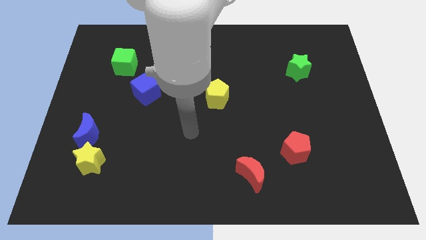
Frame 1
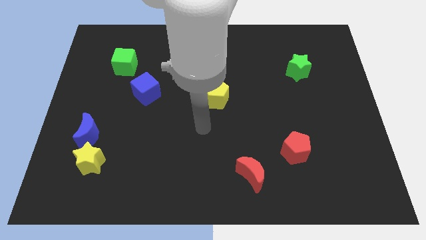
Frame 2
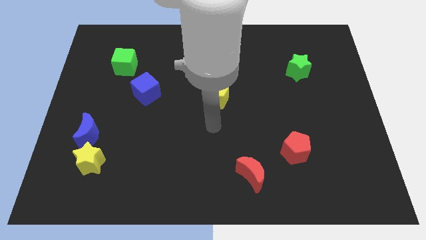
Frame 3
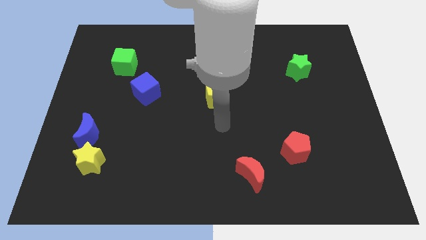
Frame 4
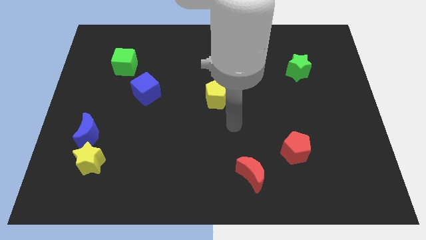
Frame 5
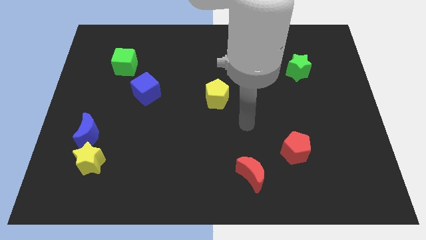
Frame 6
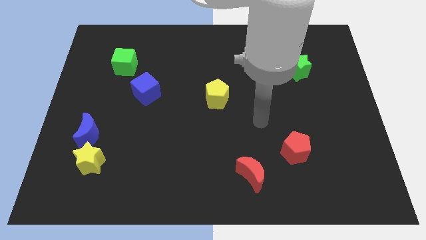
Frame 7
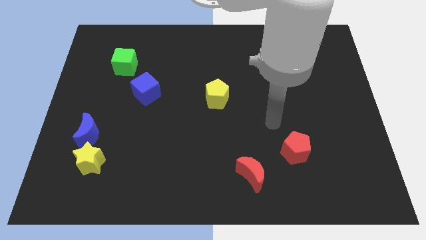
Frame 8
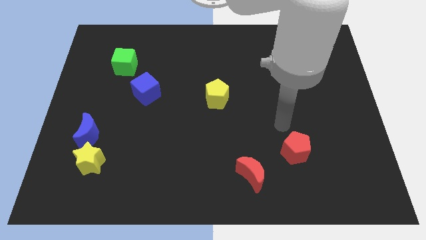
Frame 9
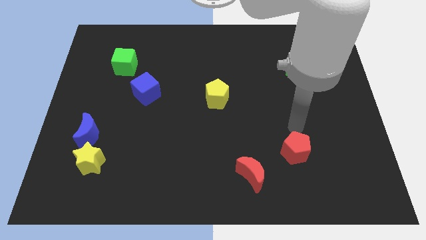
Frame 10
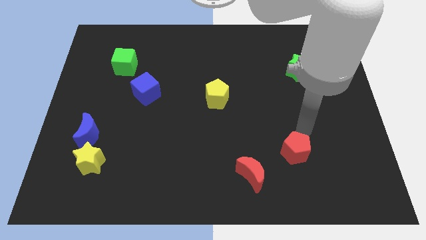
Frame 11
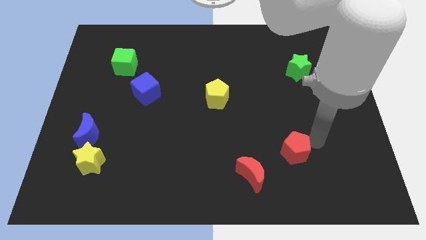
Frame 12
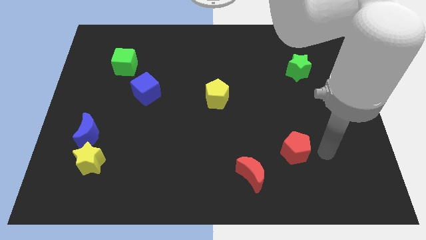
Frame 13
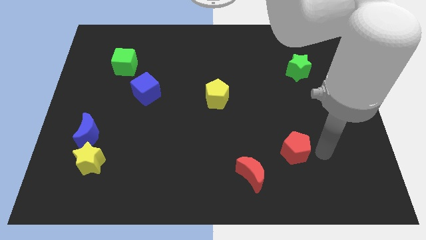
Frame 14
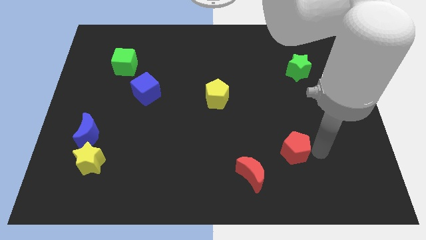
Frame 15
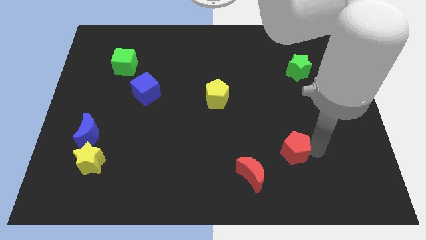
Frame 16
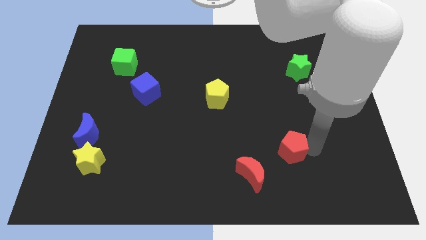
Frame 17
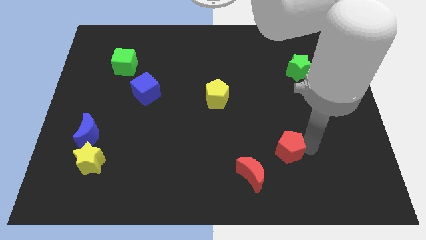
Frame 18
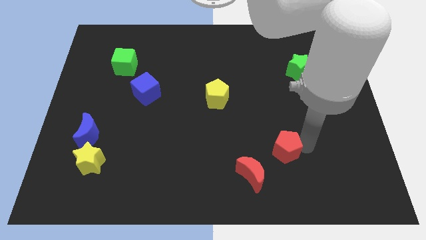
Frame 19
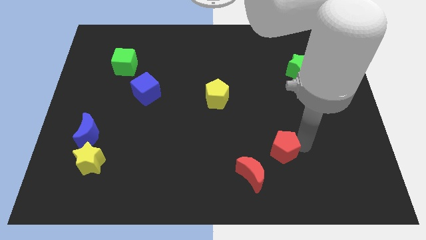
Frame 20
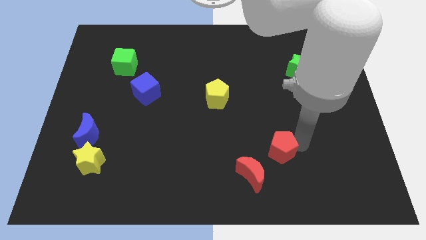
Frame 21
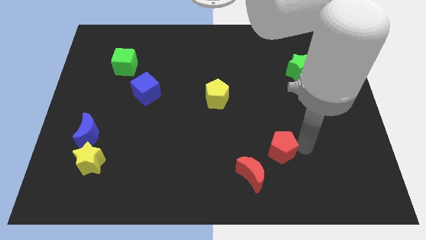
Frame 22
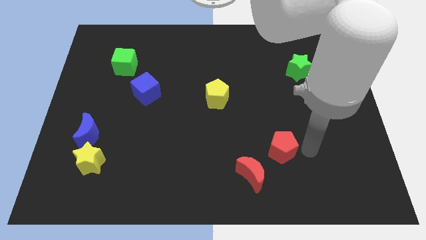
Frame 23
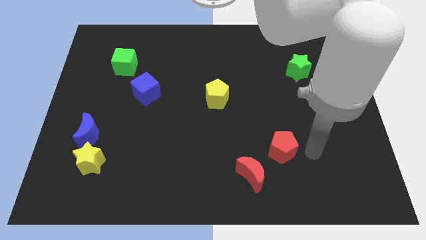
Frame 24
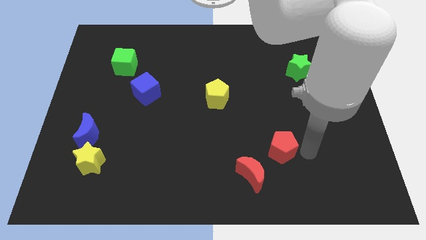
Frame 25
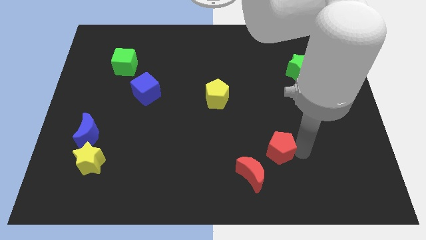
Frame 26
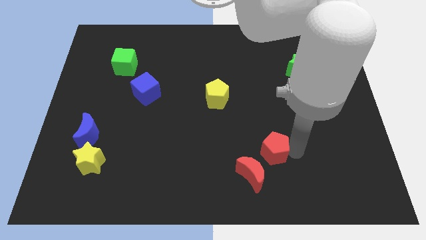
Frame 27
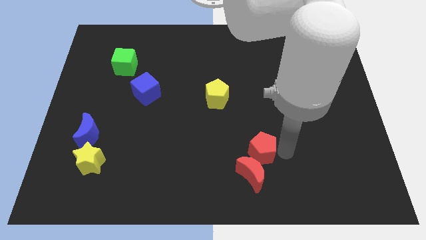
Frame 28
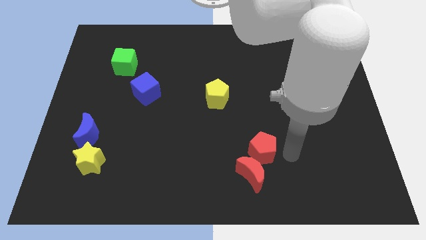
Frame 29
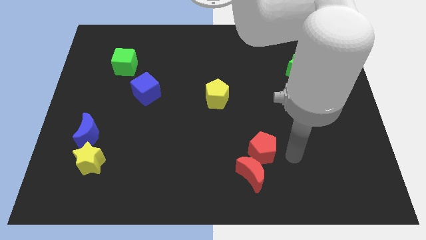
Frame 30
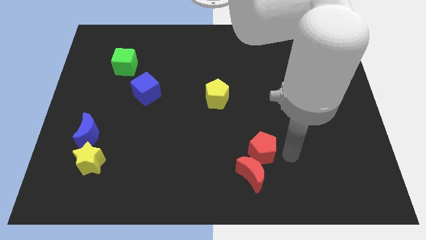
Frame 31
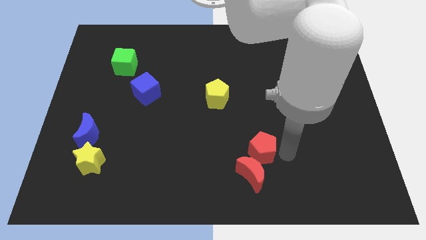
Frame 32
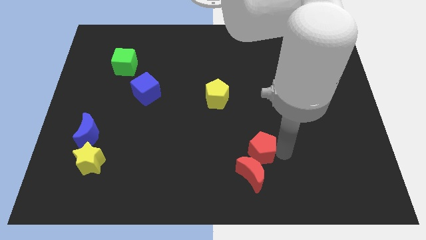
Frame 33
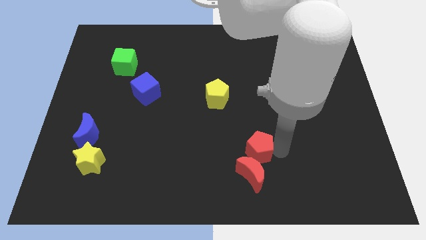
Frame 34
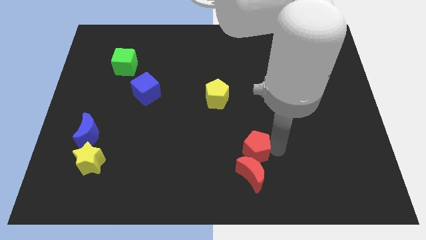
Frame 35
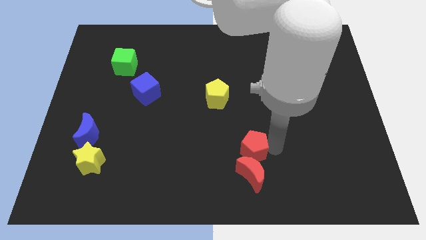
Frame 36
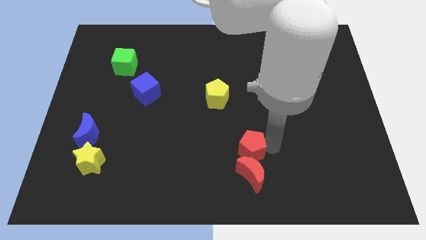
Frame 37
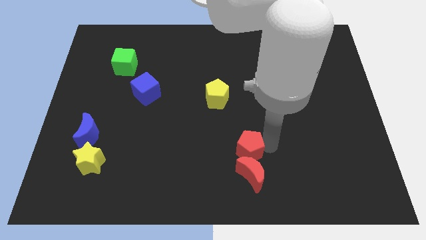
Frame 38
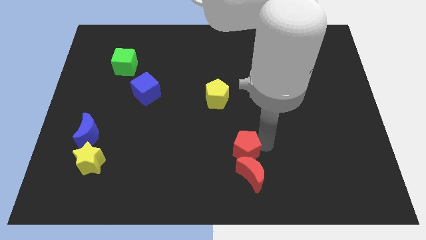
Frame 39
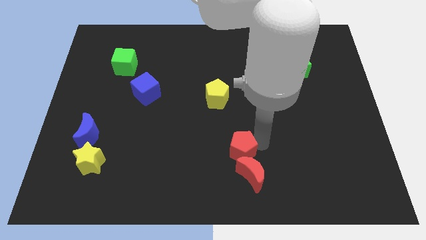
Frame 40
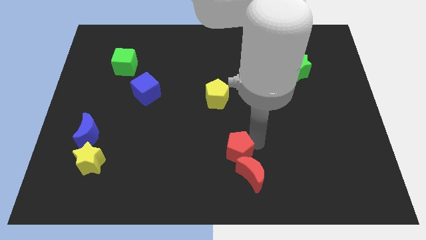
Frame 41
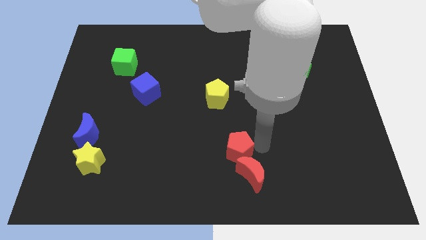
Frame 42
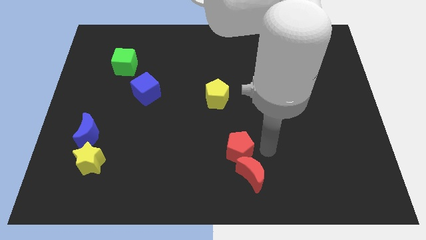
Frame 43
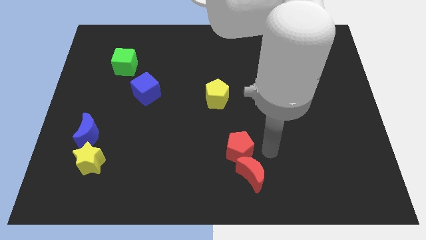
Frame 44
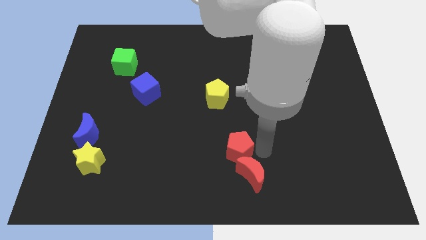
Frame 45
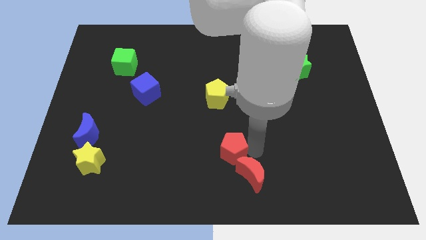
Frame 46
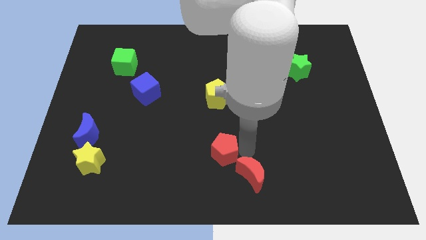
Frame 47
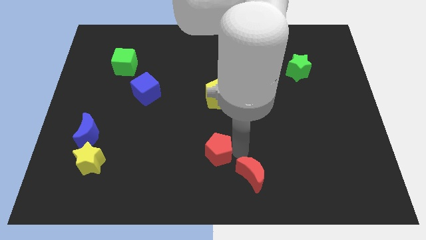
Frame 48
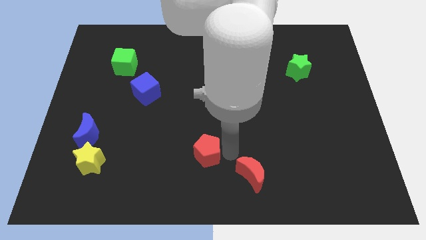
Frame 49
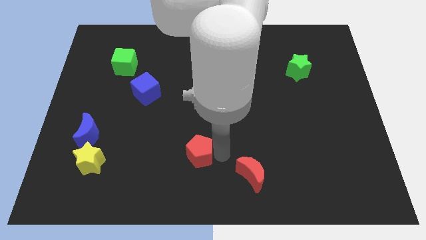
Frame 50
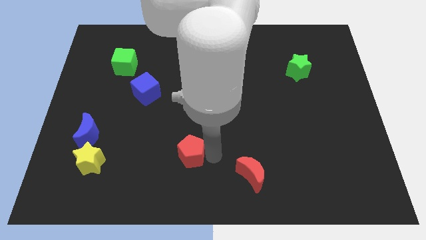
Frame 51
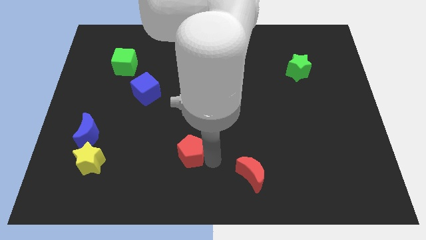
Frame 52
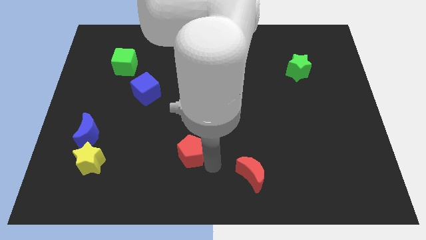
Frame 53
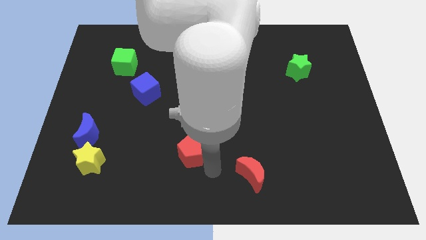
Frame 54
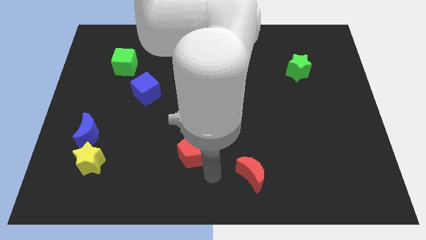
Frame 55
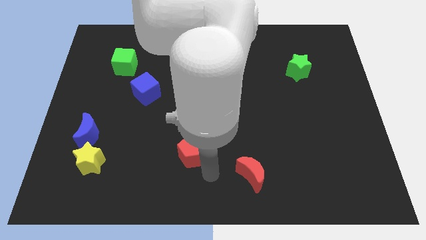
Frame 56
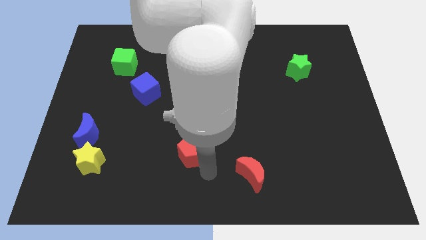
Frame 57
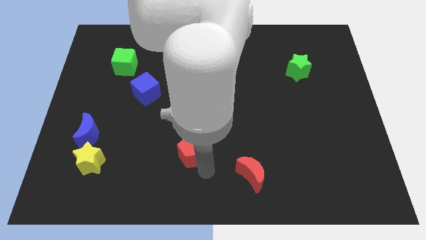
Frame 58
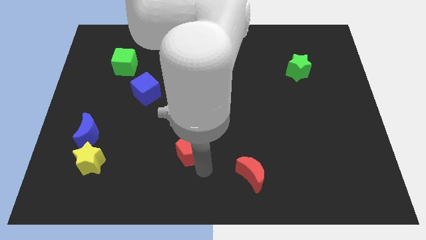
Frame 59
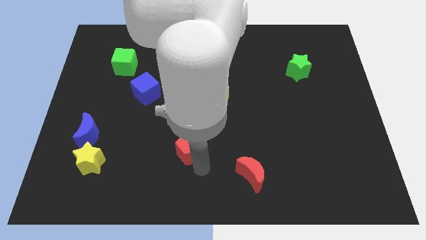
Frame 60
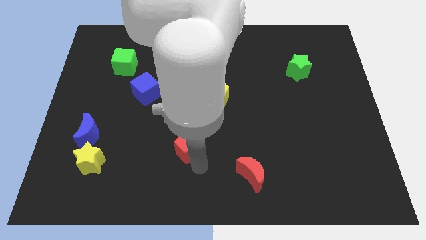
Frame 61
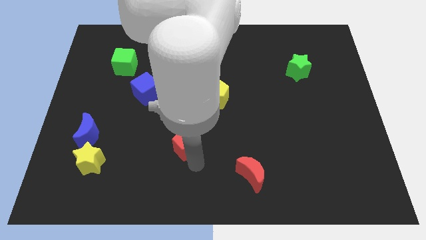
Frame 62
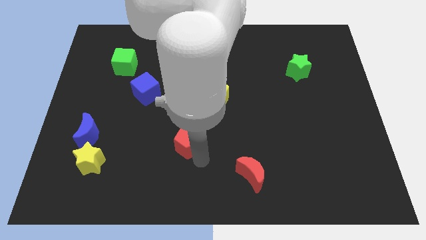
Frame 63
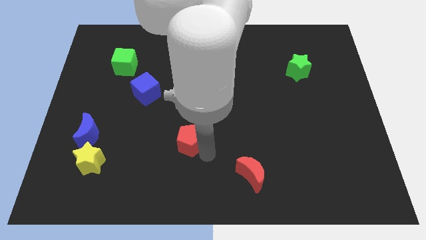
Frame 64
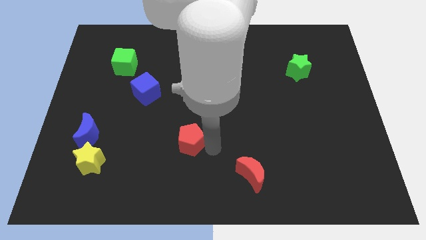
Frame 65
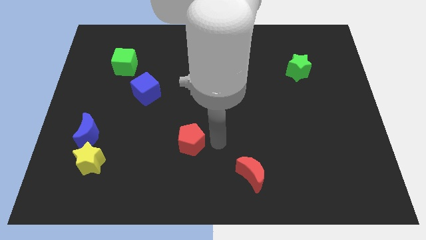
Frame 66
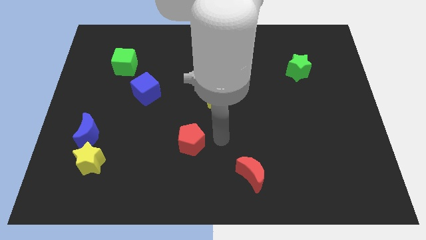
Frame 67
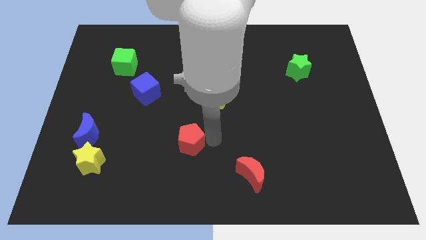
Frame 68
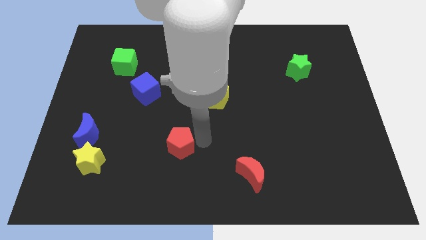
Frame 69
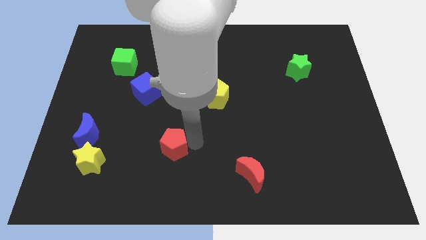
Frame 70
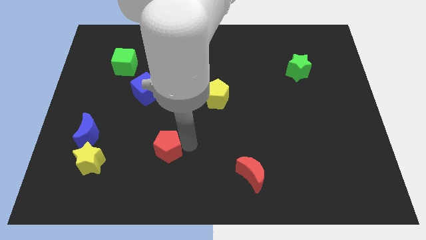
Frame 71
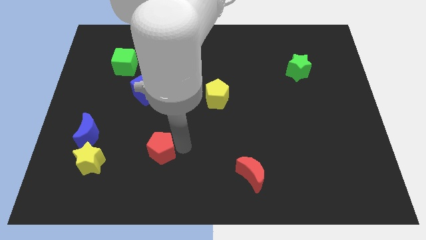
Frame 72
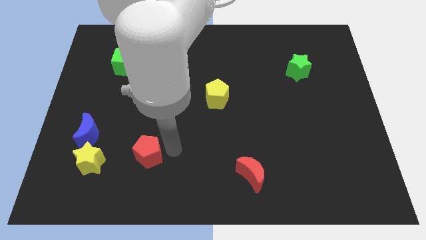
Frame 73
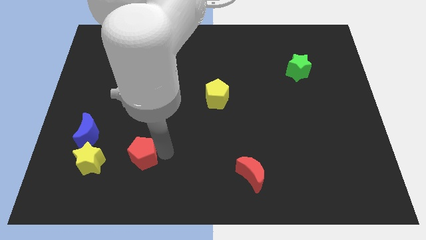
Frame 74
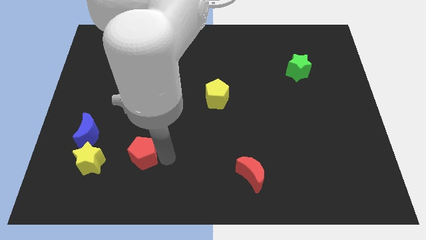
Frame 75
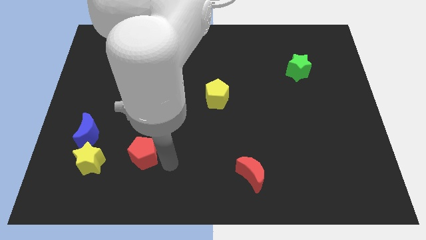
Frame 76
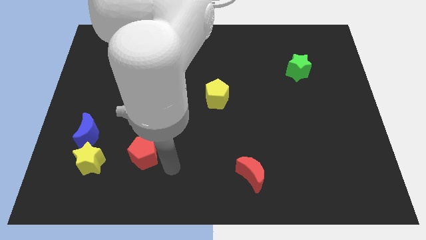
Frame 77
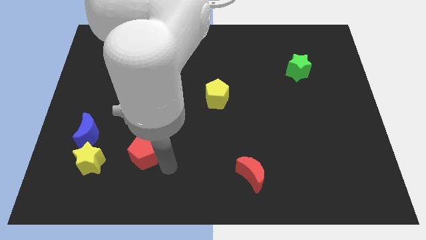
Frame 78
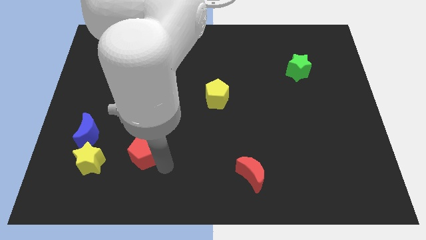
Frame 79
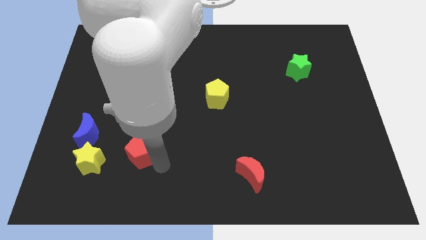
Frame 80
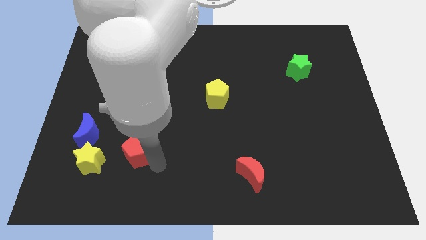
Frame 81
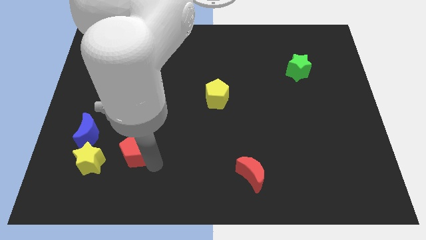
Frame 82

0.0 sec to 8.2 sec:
move the red pentagon diagonally up and to the right of the yellow star
